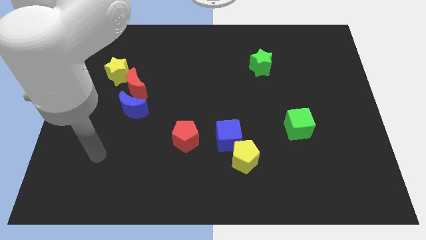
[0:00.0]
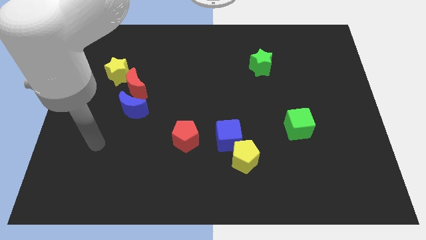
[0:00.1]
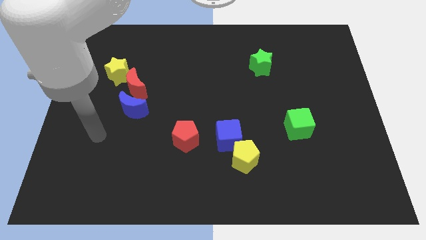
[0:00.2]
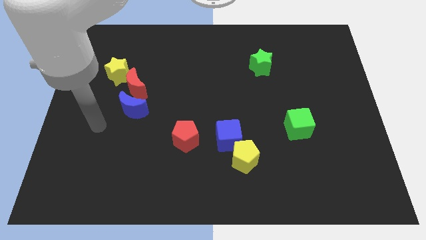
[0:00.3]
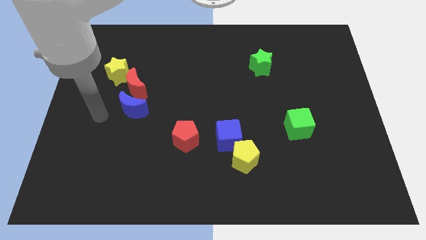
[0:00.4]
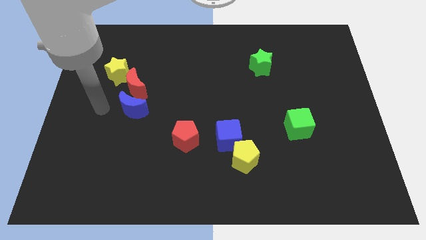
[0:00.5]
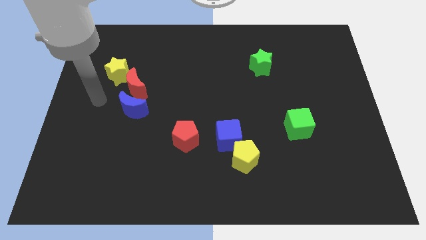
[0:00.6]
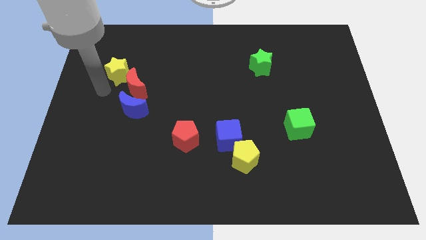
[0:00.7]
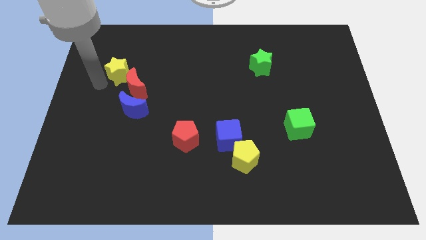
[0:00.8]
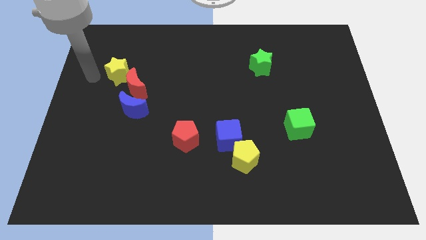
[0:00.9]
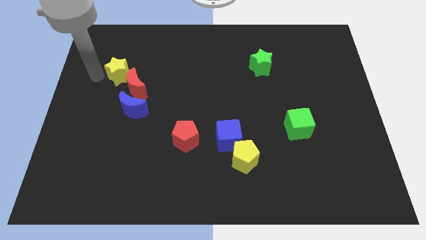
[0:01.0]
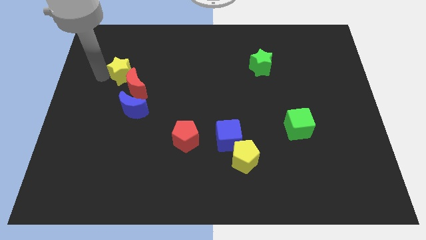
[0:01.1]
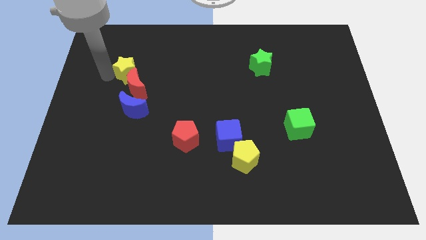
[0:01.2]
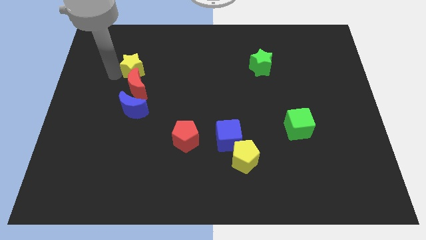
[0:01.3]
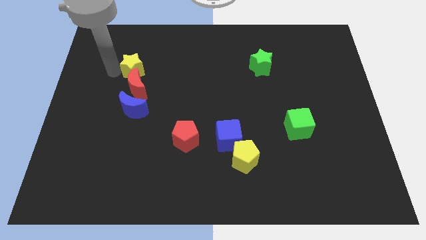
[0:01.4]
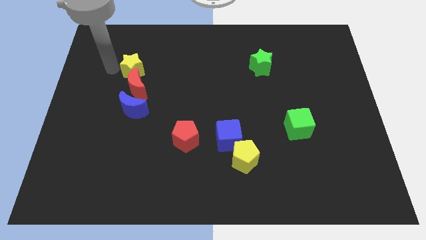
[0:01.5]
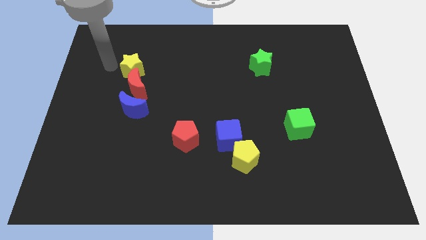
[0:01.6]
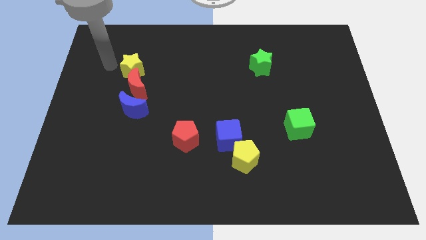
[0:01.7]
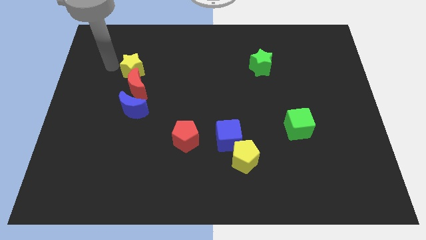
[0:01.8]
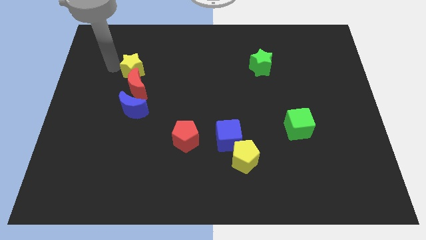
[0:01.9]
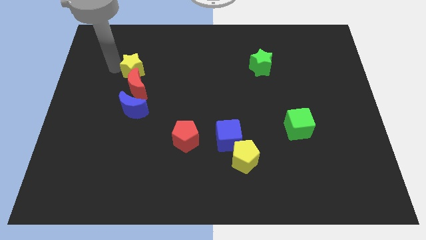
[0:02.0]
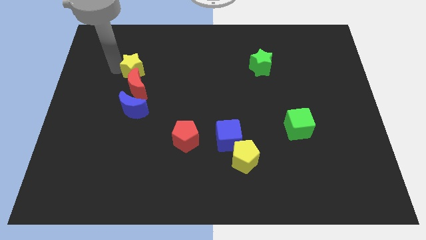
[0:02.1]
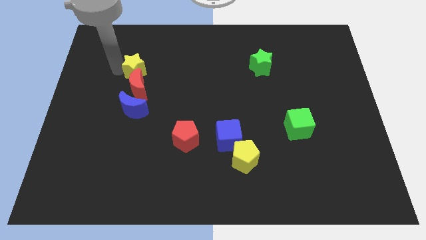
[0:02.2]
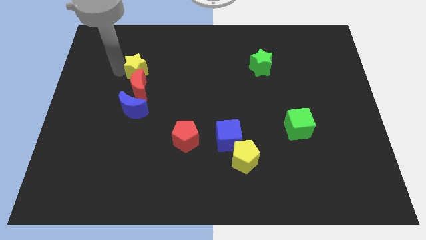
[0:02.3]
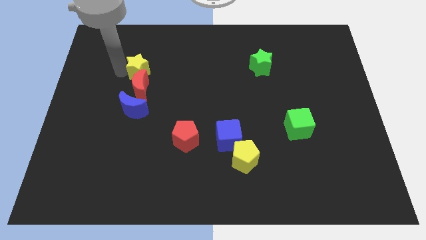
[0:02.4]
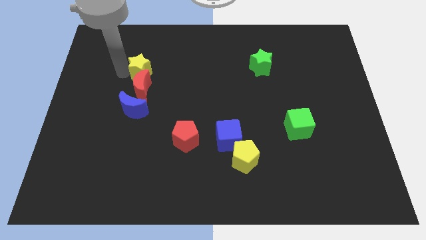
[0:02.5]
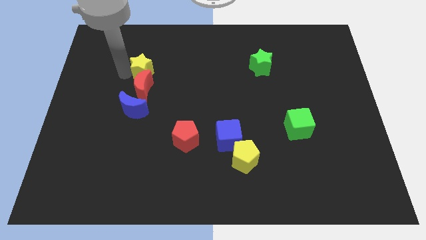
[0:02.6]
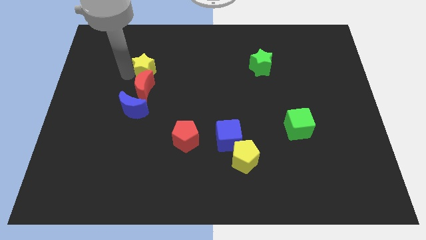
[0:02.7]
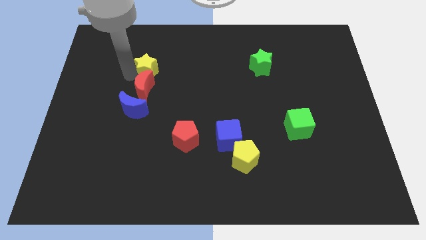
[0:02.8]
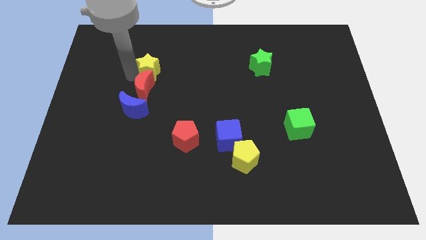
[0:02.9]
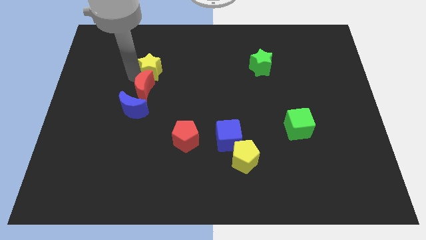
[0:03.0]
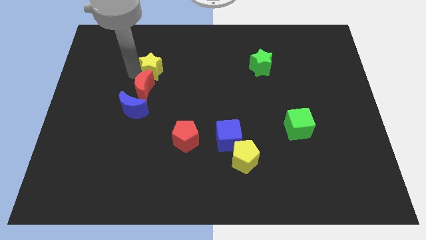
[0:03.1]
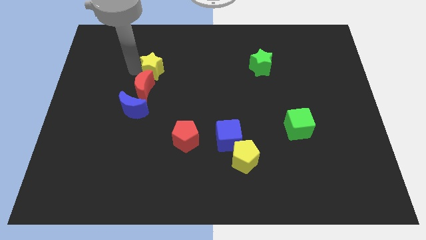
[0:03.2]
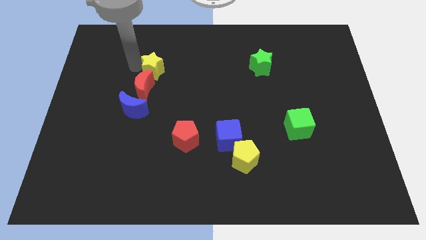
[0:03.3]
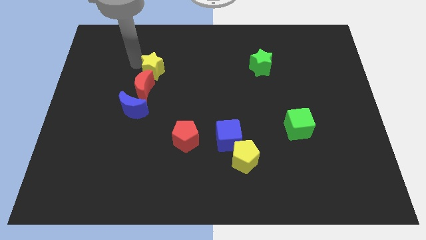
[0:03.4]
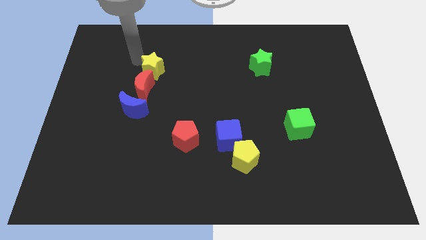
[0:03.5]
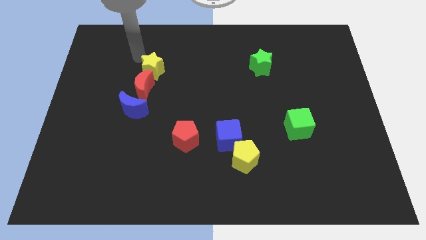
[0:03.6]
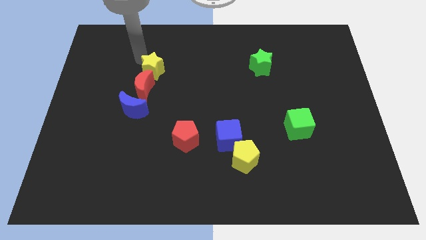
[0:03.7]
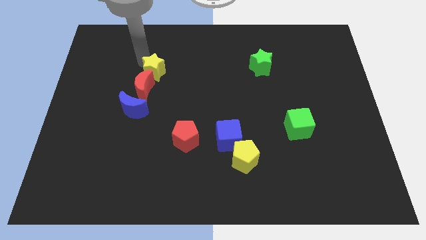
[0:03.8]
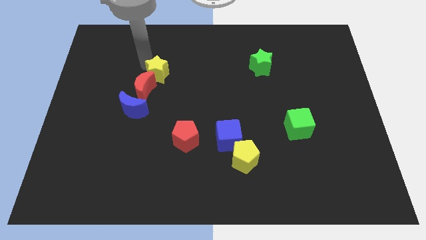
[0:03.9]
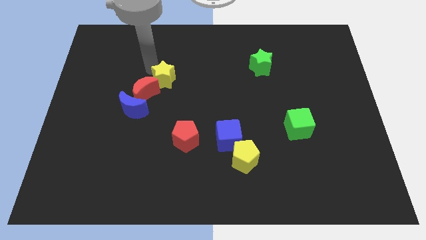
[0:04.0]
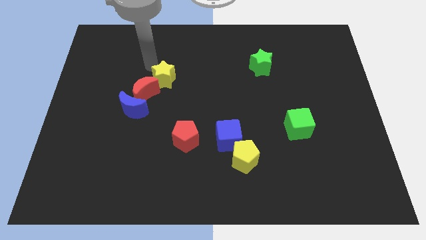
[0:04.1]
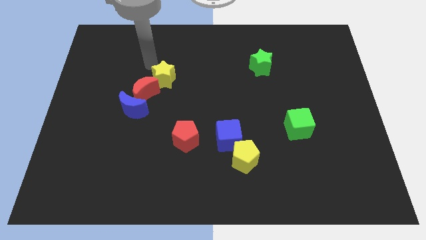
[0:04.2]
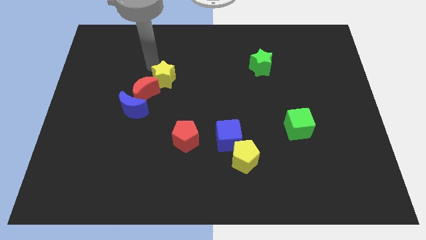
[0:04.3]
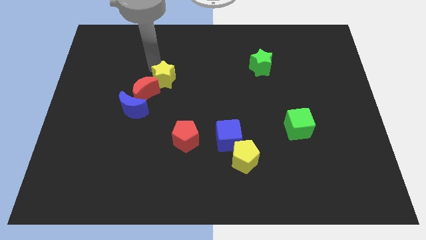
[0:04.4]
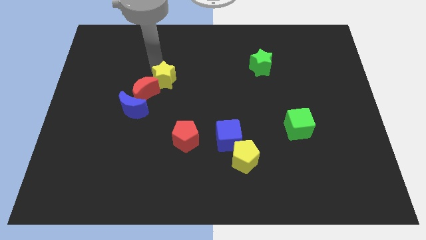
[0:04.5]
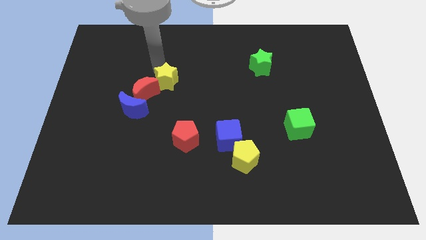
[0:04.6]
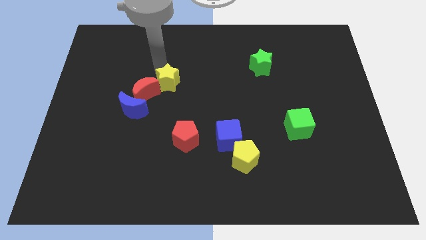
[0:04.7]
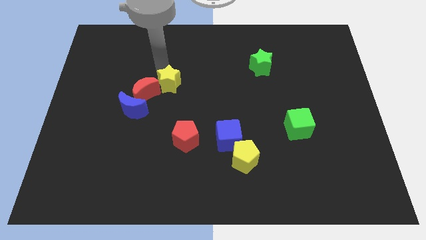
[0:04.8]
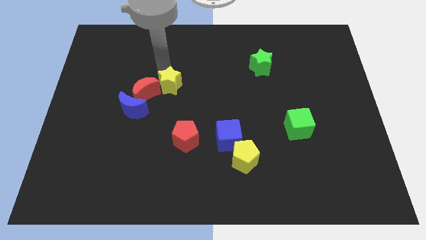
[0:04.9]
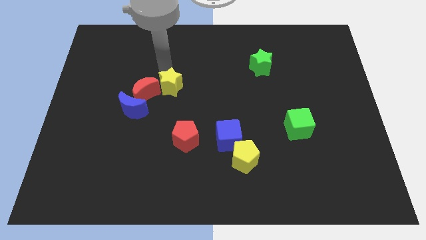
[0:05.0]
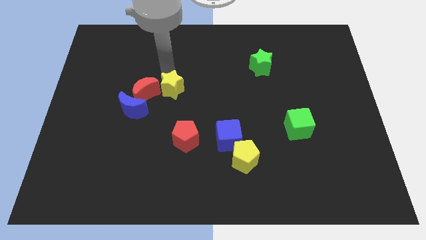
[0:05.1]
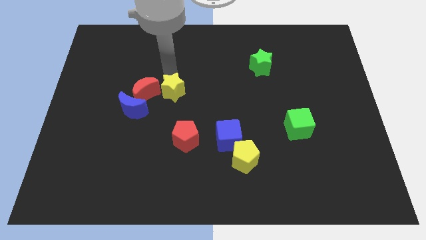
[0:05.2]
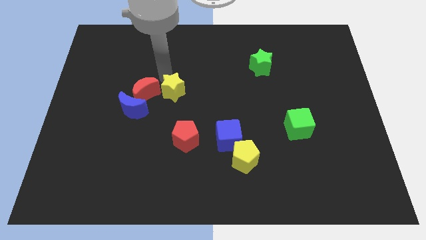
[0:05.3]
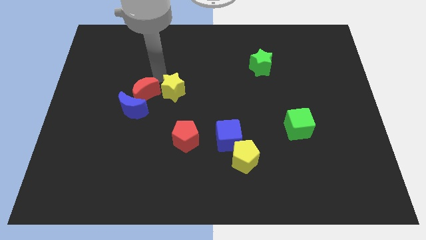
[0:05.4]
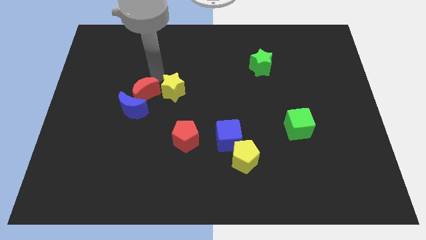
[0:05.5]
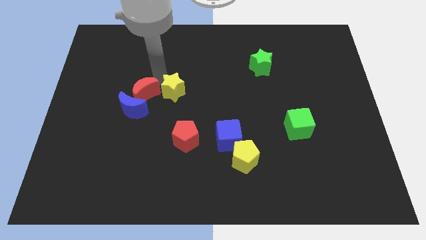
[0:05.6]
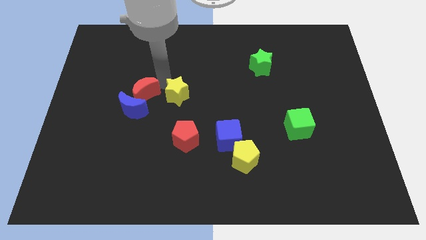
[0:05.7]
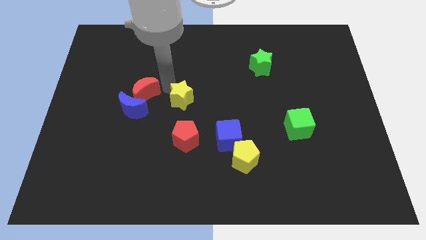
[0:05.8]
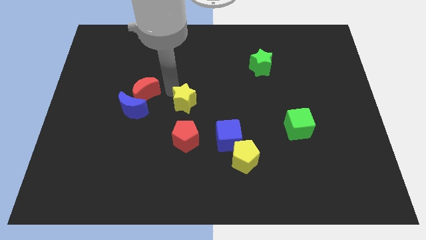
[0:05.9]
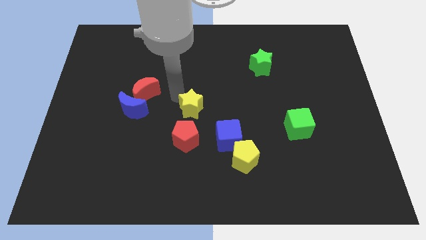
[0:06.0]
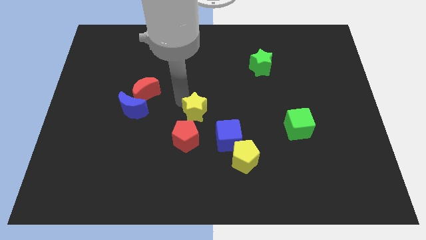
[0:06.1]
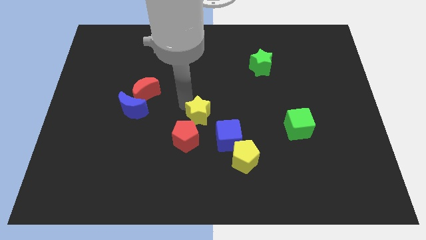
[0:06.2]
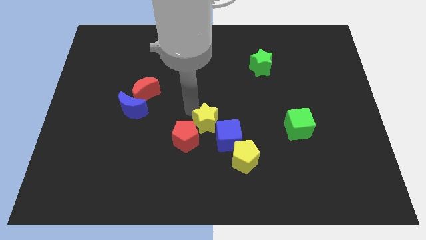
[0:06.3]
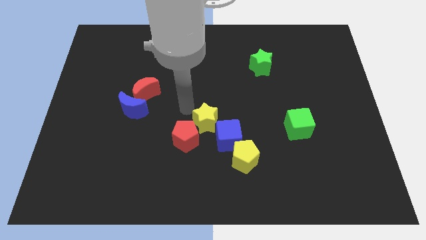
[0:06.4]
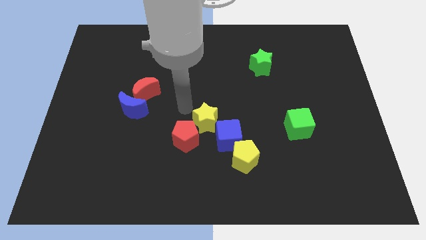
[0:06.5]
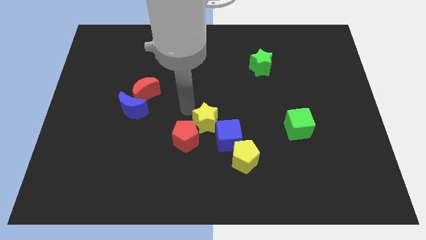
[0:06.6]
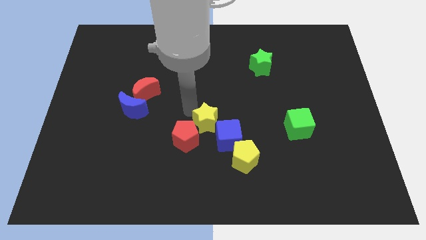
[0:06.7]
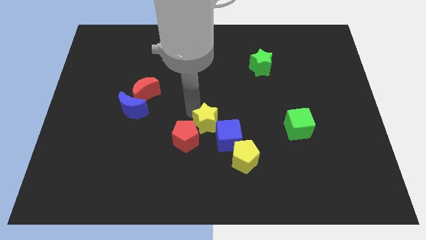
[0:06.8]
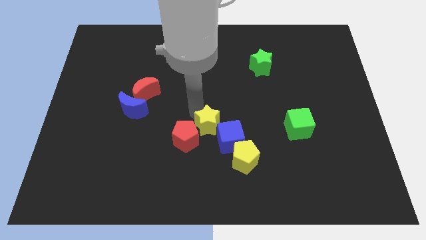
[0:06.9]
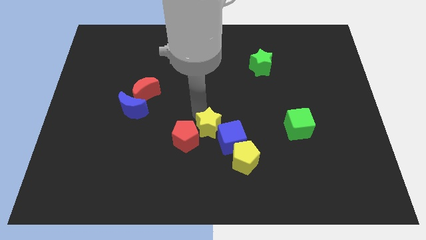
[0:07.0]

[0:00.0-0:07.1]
put the yellow star towards the blue cube

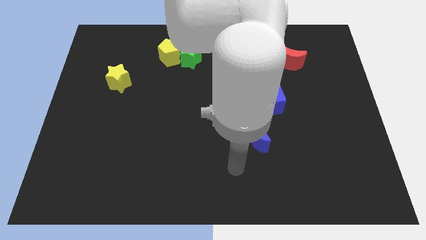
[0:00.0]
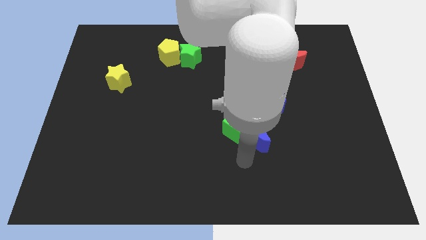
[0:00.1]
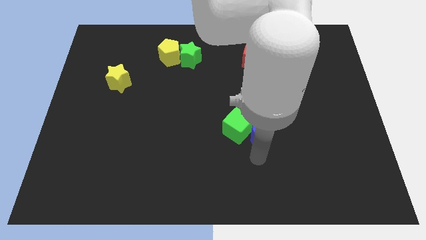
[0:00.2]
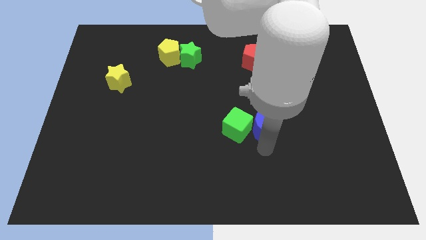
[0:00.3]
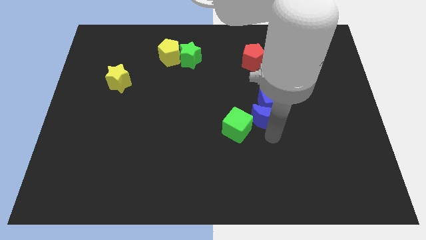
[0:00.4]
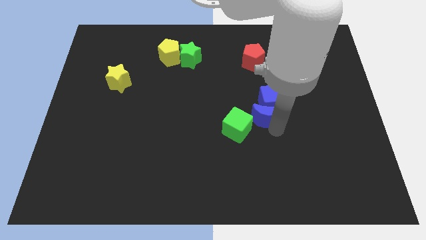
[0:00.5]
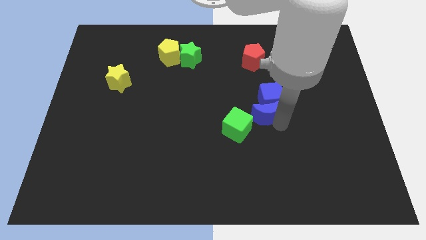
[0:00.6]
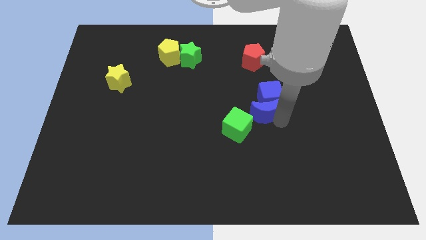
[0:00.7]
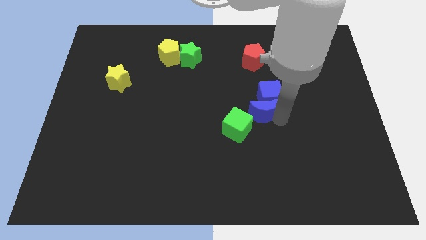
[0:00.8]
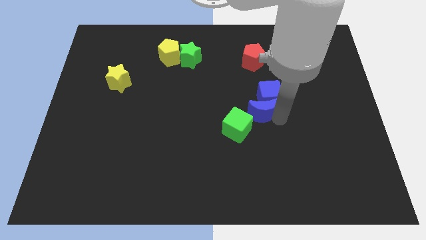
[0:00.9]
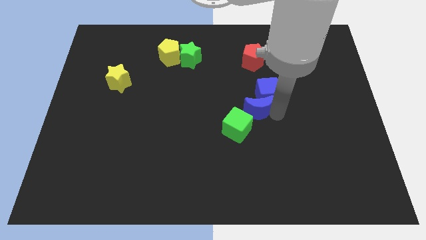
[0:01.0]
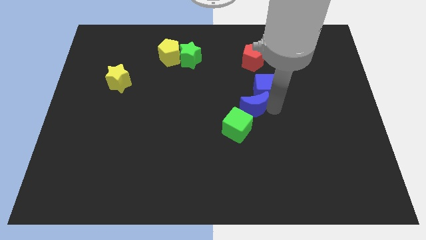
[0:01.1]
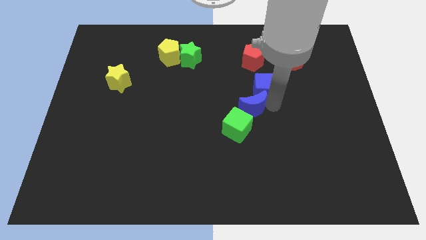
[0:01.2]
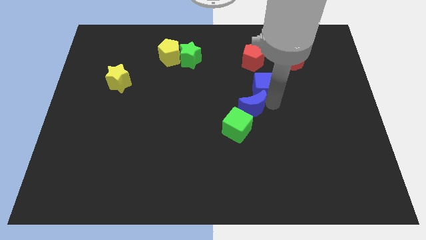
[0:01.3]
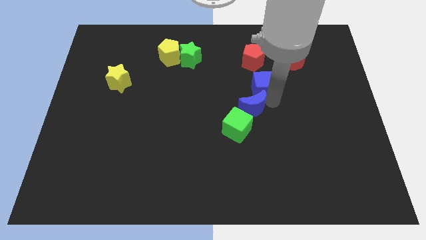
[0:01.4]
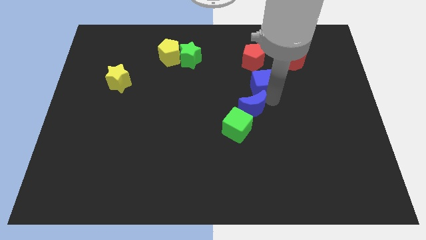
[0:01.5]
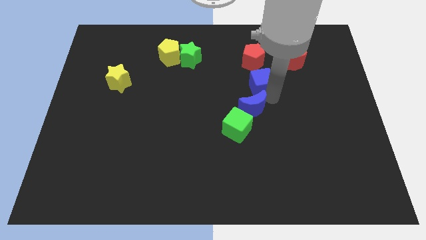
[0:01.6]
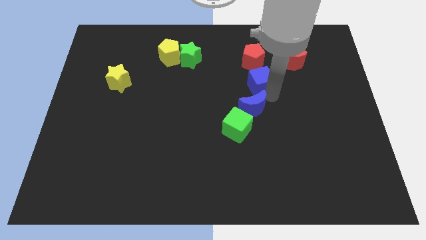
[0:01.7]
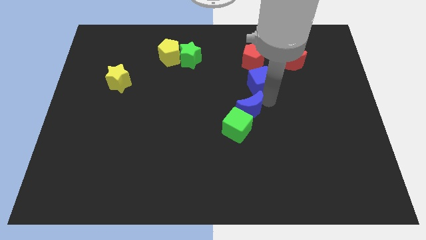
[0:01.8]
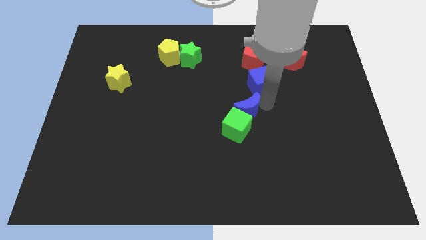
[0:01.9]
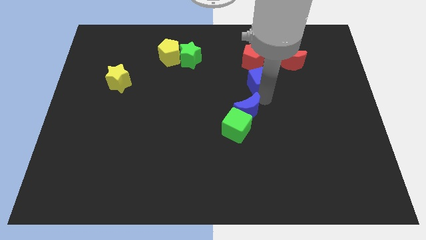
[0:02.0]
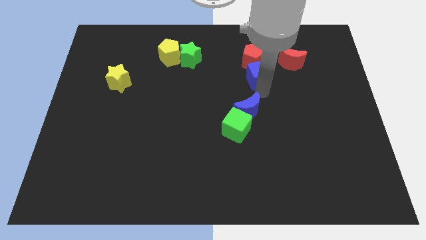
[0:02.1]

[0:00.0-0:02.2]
slide the blue cube towards the red pentagon
